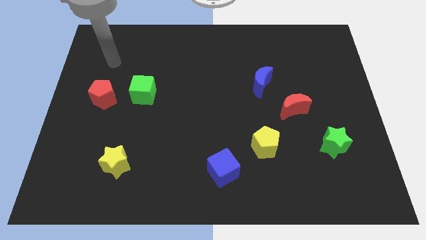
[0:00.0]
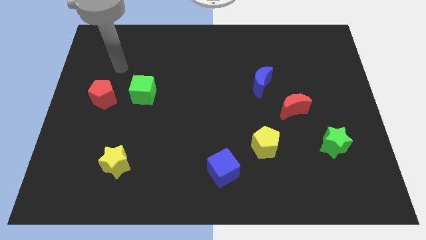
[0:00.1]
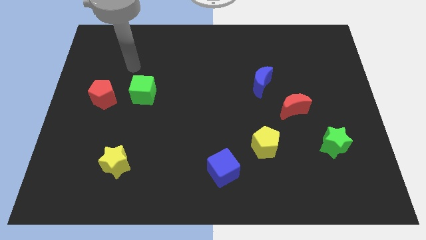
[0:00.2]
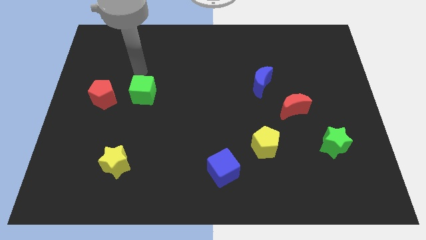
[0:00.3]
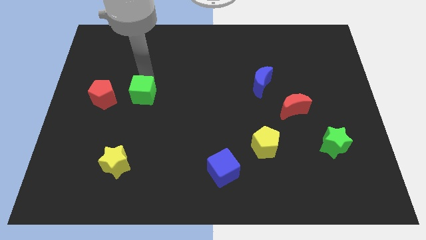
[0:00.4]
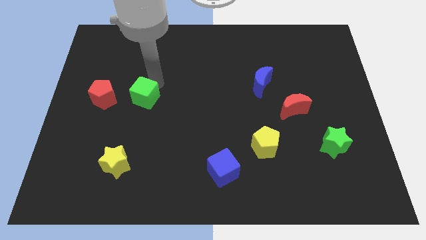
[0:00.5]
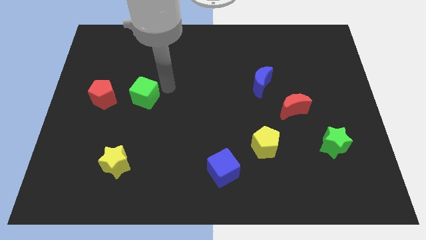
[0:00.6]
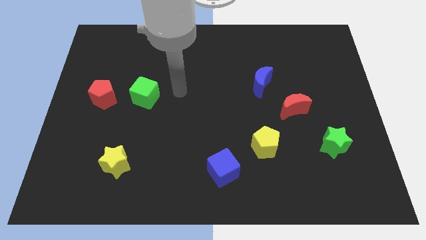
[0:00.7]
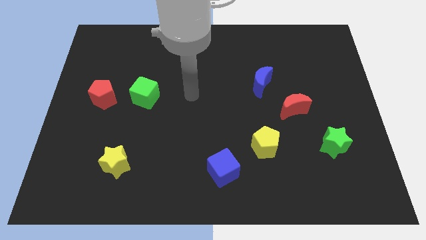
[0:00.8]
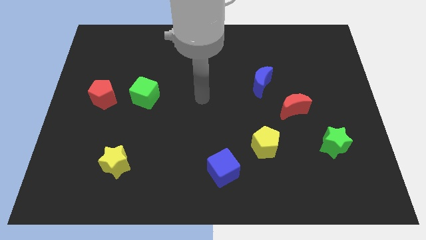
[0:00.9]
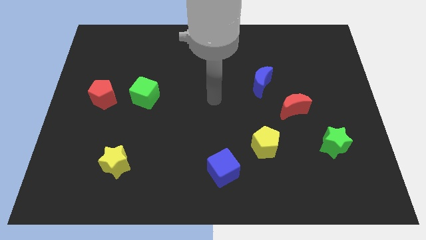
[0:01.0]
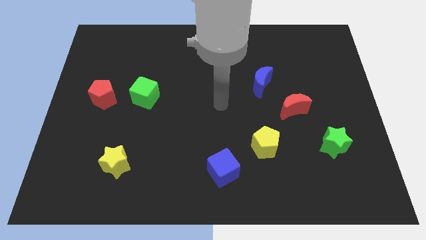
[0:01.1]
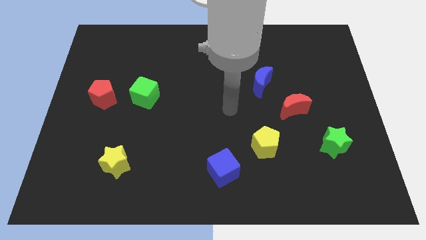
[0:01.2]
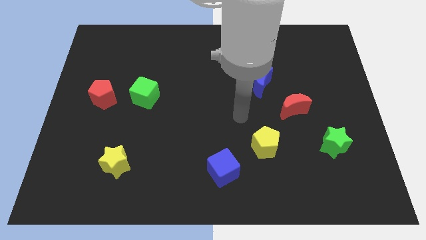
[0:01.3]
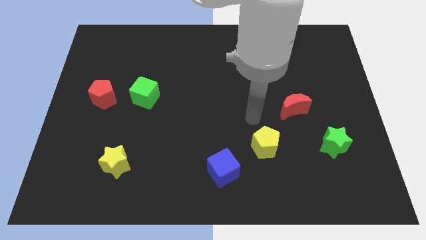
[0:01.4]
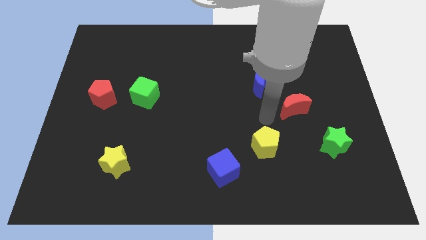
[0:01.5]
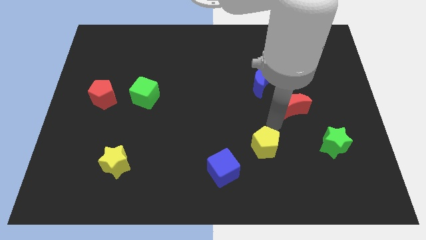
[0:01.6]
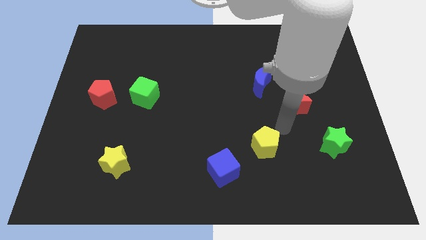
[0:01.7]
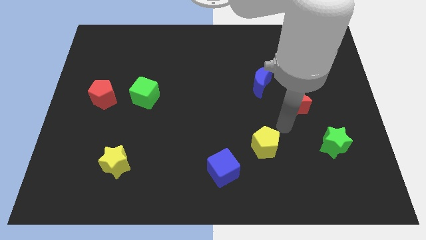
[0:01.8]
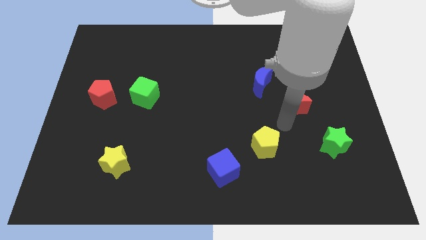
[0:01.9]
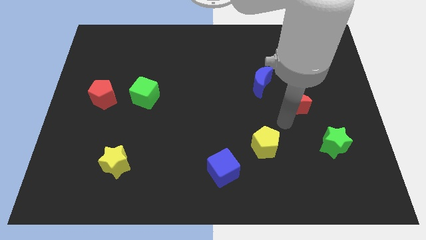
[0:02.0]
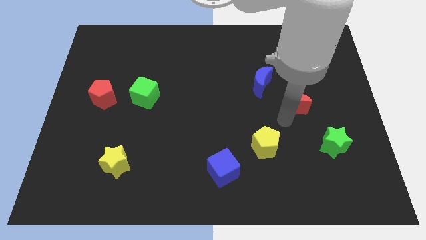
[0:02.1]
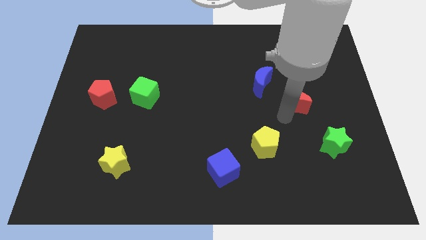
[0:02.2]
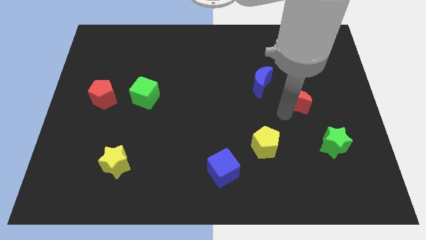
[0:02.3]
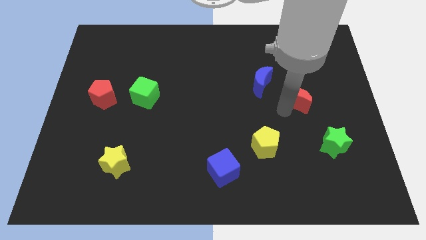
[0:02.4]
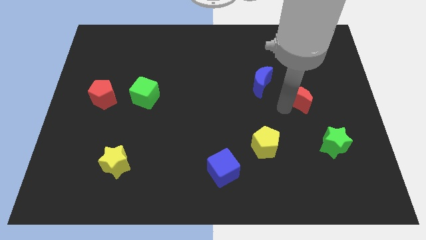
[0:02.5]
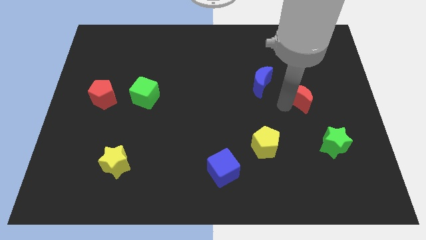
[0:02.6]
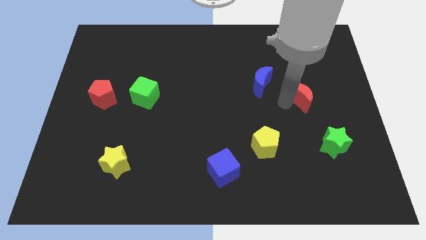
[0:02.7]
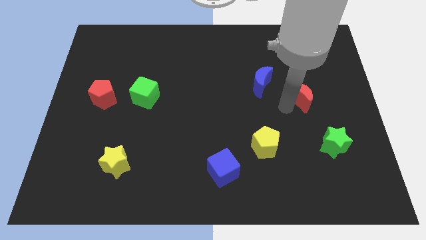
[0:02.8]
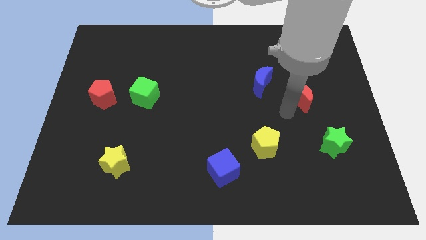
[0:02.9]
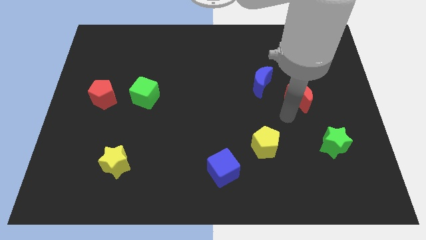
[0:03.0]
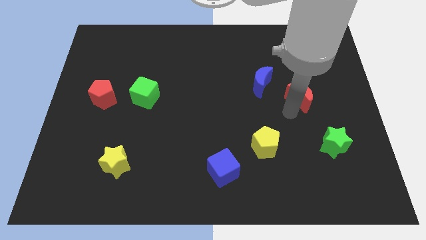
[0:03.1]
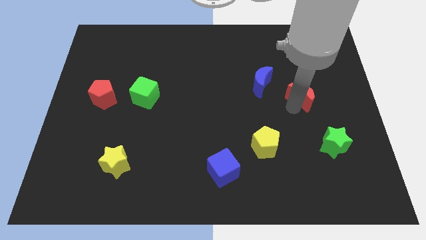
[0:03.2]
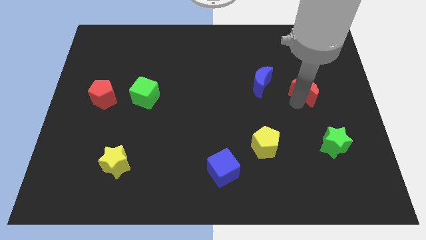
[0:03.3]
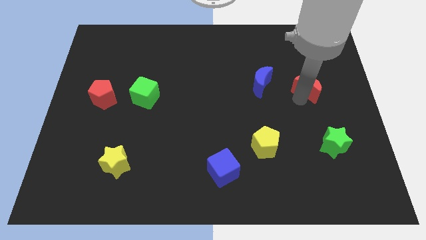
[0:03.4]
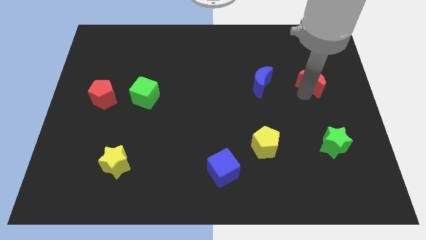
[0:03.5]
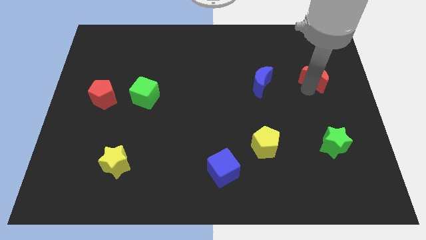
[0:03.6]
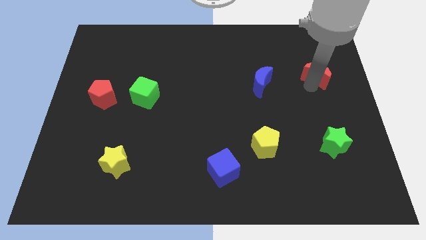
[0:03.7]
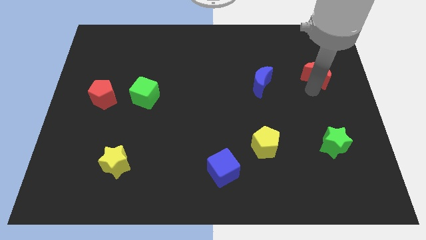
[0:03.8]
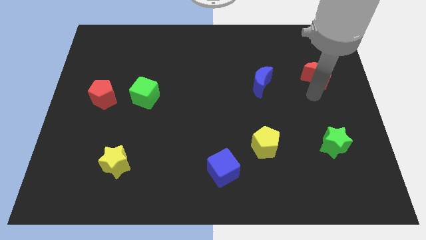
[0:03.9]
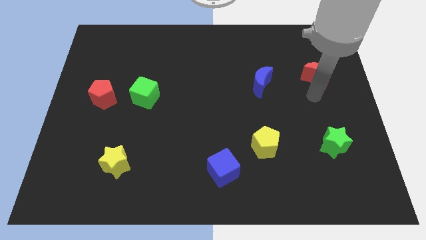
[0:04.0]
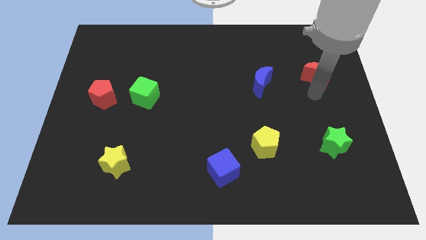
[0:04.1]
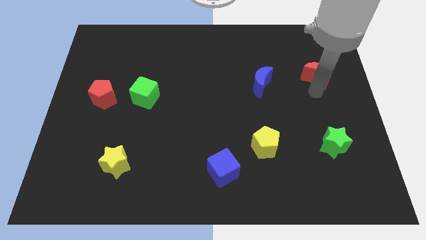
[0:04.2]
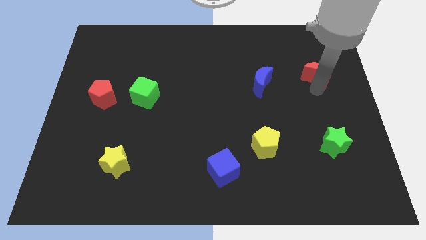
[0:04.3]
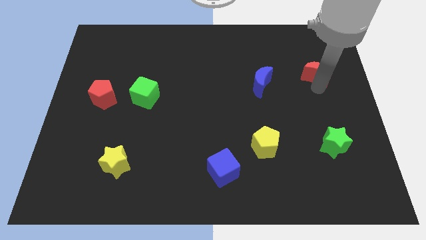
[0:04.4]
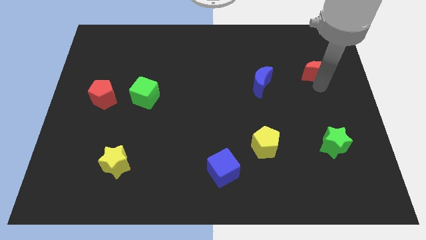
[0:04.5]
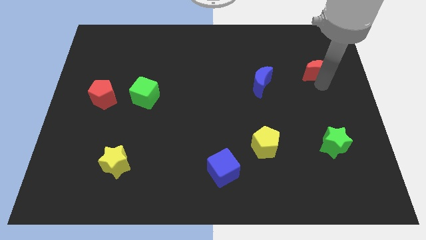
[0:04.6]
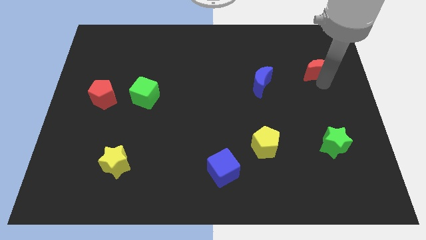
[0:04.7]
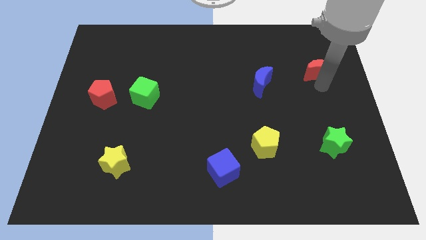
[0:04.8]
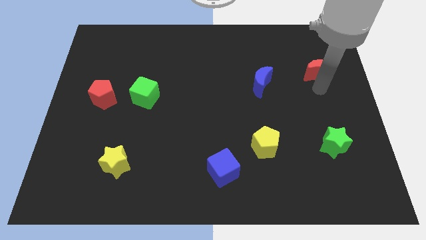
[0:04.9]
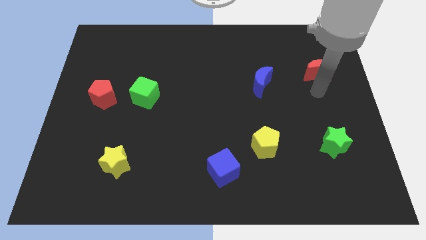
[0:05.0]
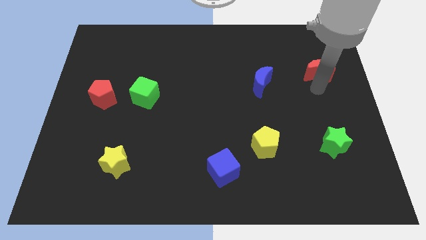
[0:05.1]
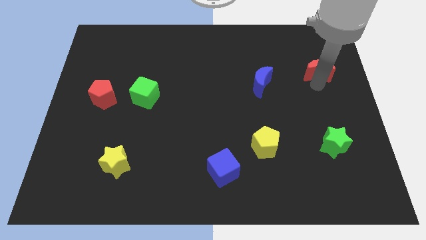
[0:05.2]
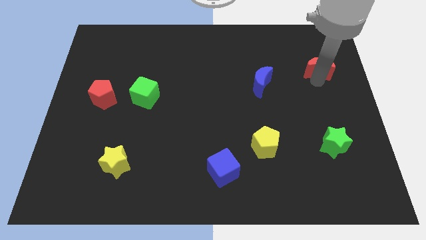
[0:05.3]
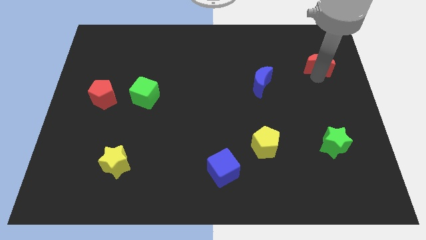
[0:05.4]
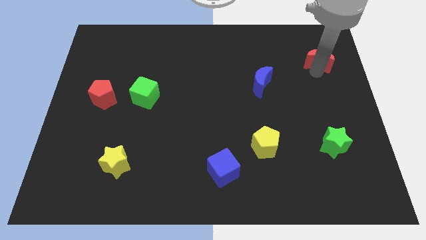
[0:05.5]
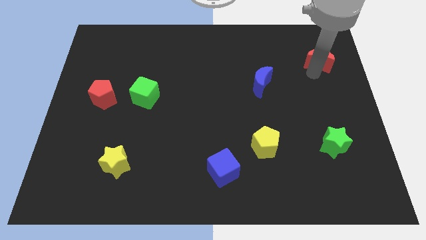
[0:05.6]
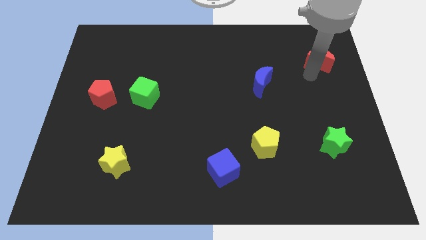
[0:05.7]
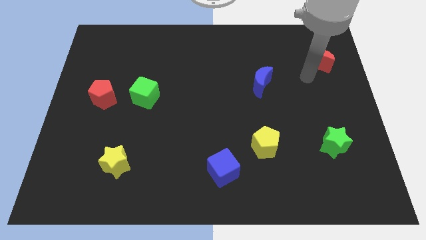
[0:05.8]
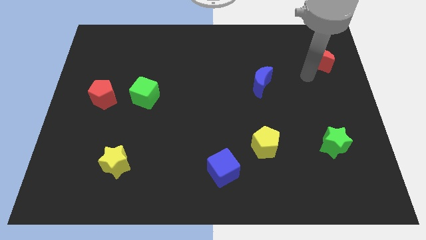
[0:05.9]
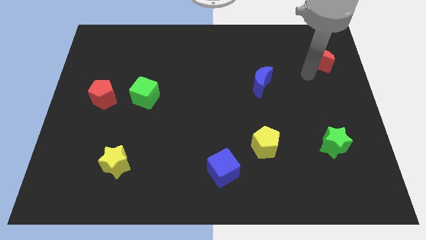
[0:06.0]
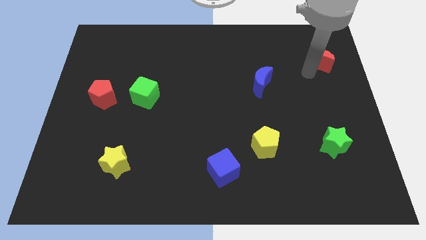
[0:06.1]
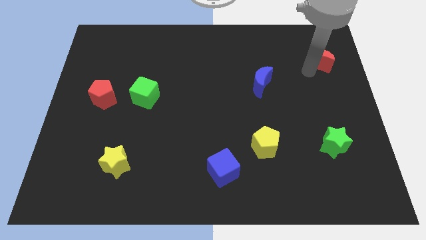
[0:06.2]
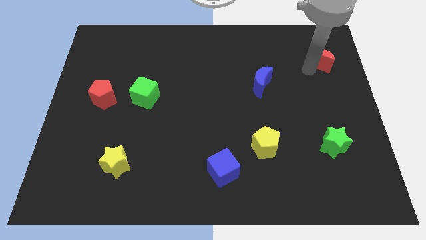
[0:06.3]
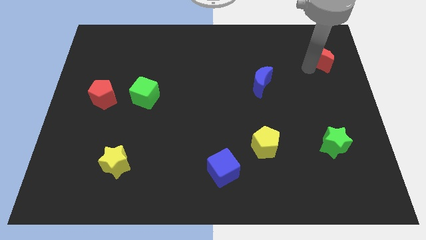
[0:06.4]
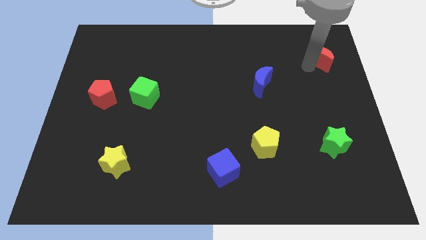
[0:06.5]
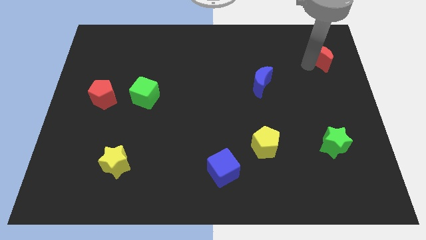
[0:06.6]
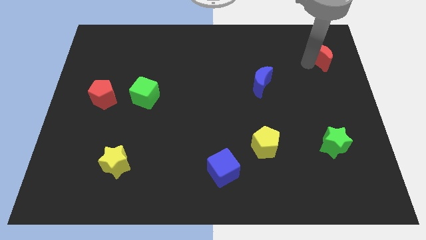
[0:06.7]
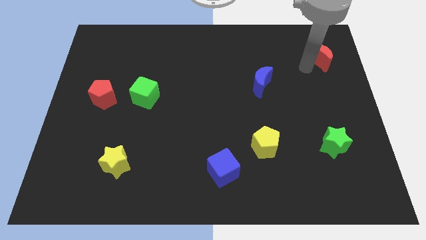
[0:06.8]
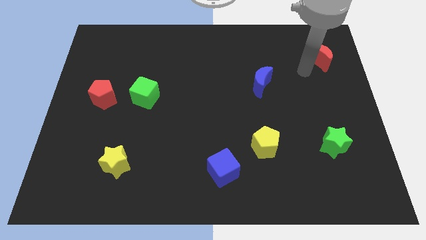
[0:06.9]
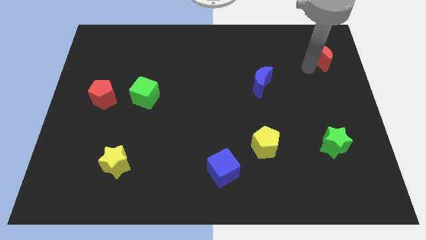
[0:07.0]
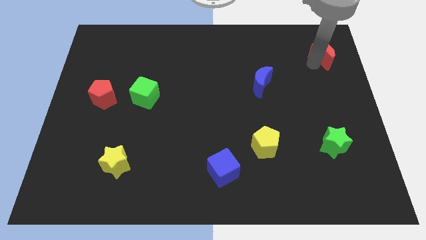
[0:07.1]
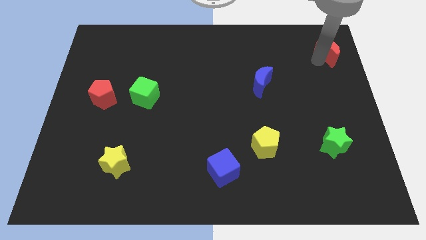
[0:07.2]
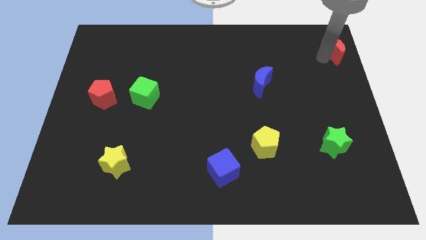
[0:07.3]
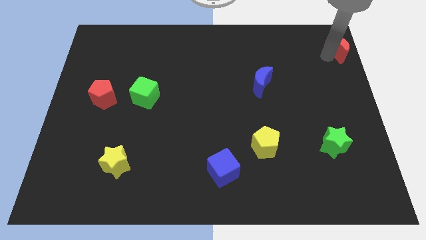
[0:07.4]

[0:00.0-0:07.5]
move the red moon to the top right
